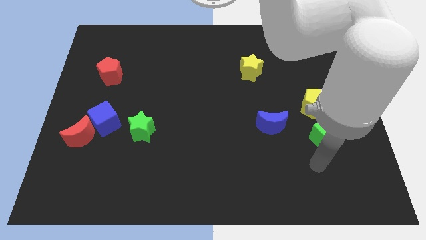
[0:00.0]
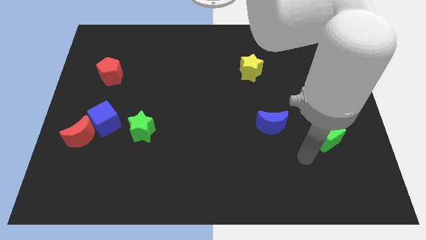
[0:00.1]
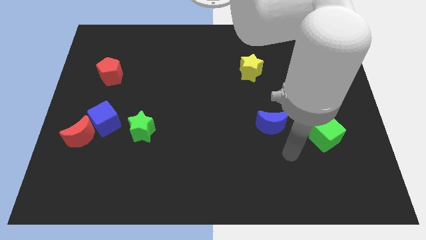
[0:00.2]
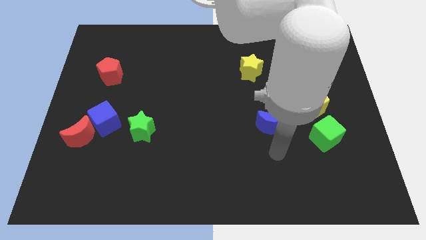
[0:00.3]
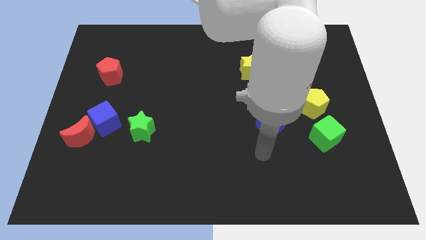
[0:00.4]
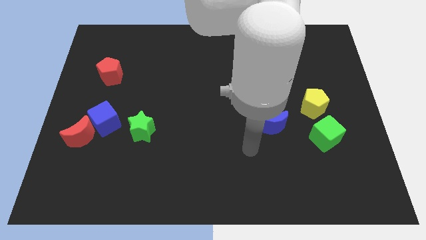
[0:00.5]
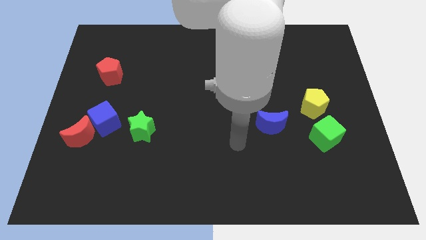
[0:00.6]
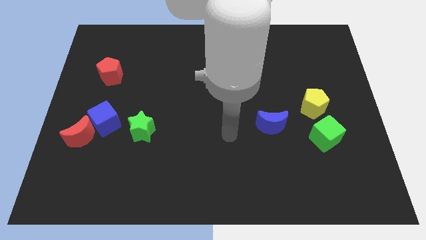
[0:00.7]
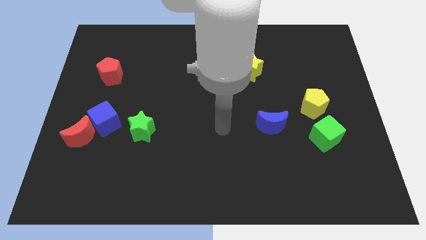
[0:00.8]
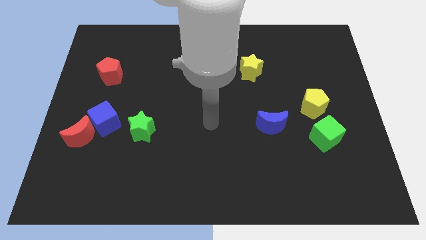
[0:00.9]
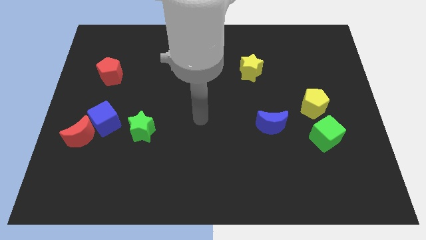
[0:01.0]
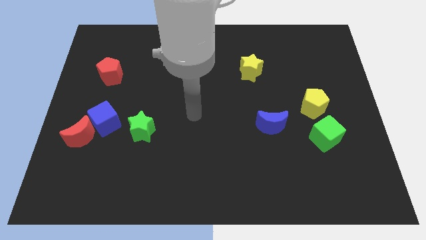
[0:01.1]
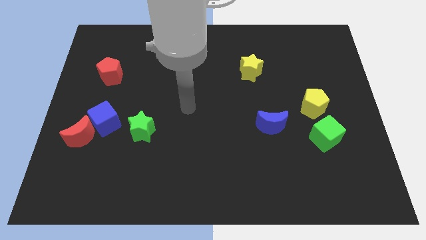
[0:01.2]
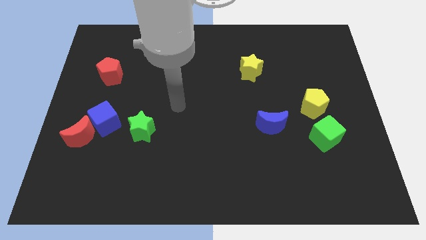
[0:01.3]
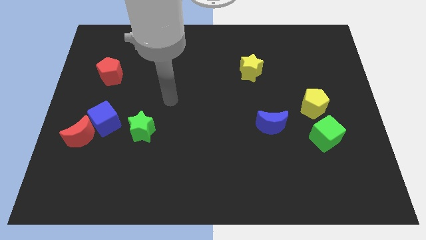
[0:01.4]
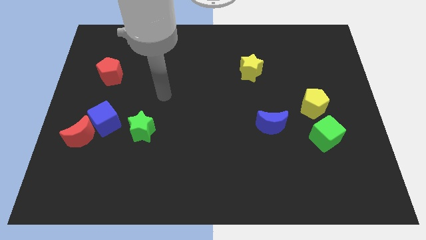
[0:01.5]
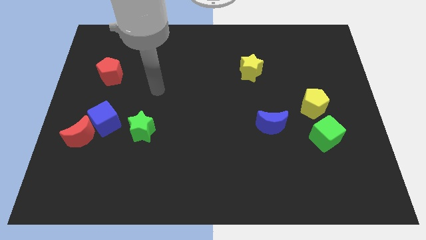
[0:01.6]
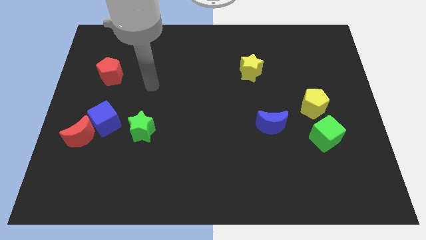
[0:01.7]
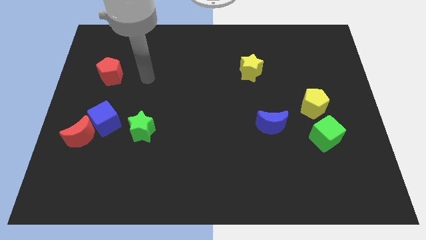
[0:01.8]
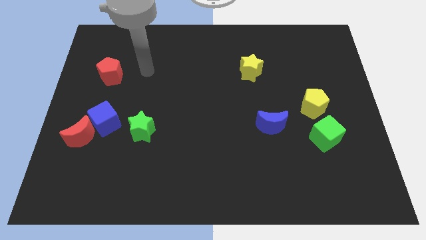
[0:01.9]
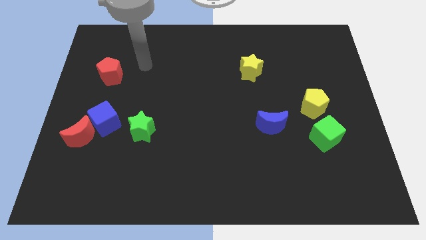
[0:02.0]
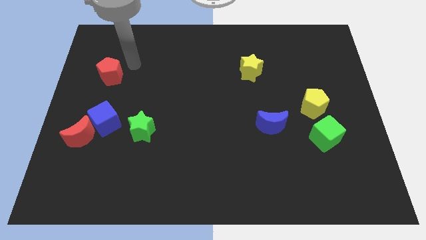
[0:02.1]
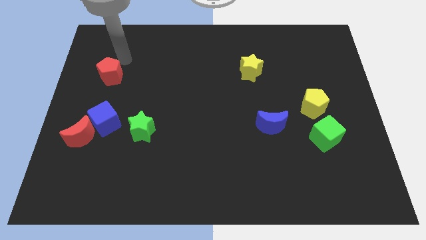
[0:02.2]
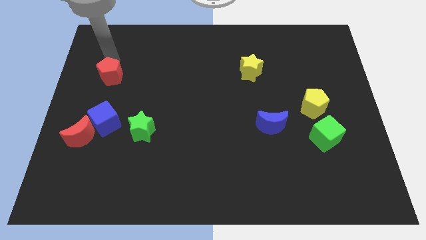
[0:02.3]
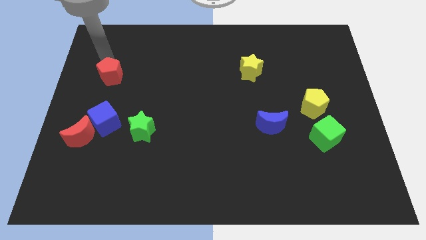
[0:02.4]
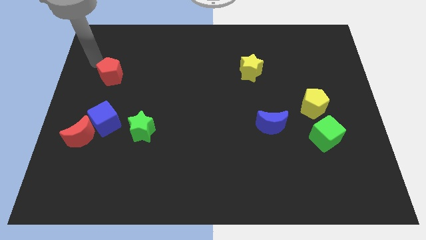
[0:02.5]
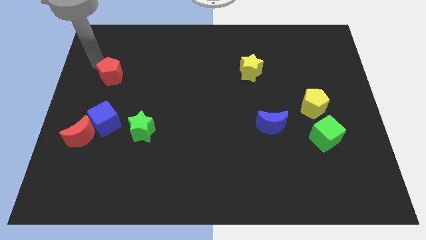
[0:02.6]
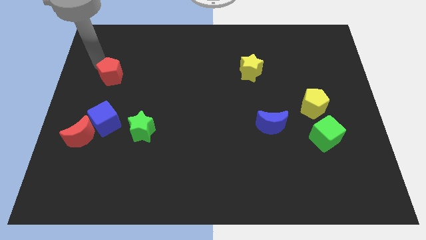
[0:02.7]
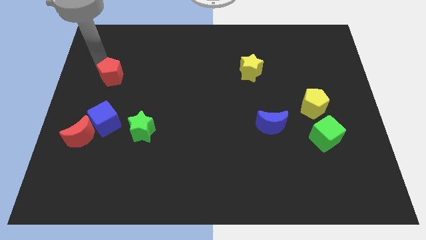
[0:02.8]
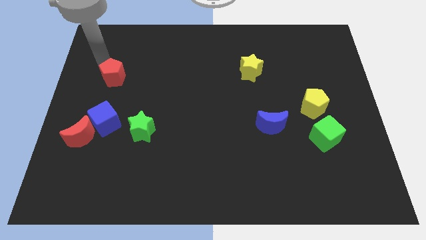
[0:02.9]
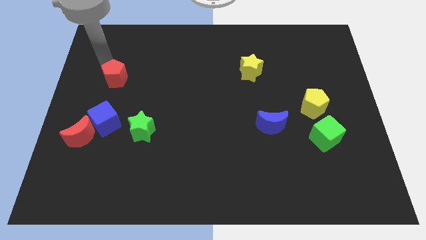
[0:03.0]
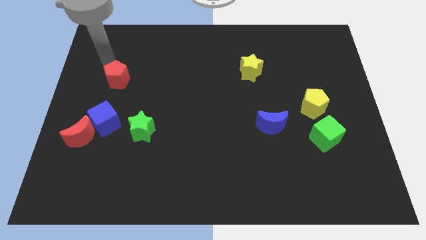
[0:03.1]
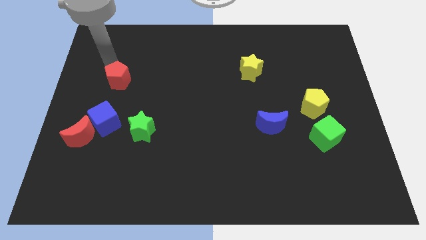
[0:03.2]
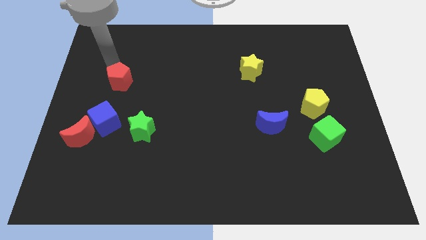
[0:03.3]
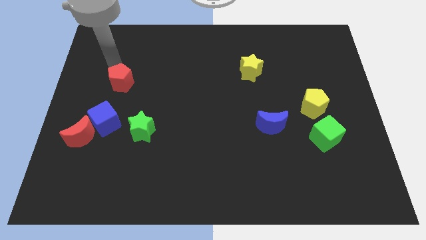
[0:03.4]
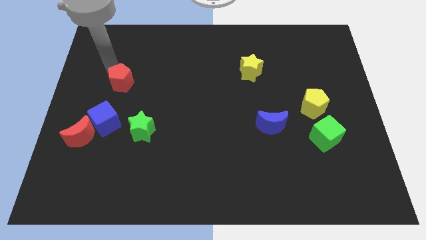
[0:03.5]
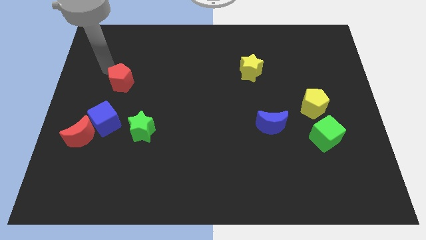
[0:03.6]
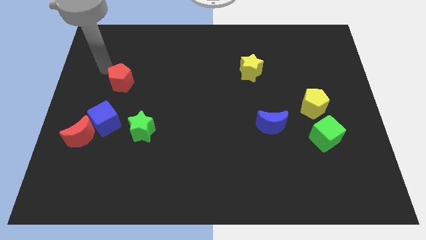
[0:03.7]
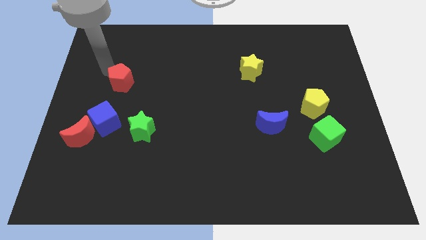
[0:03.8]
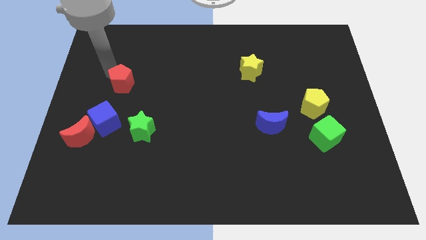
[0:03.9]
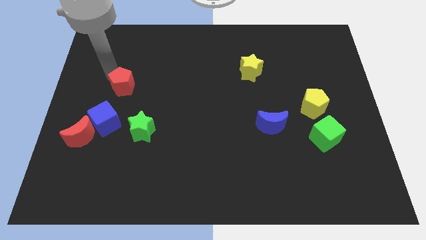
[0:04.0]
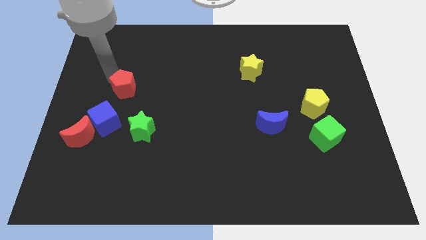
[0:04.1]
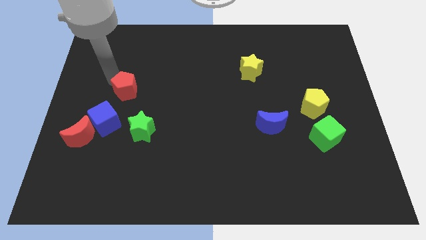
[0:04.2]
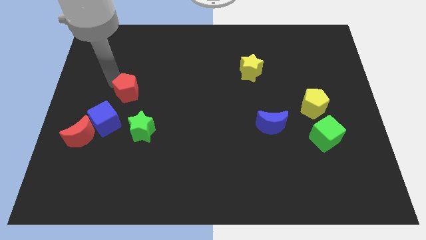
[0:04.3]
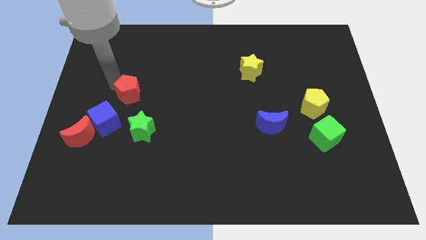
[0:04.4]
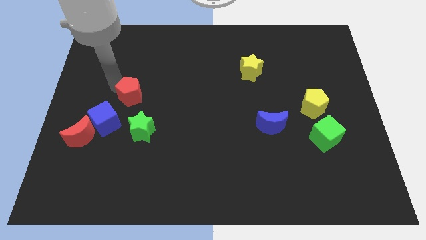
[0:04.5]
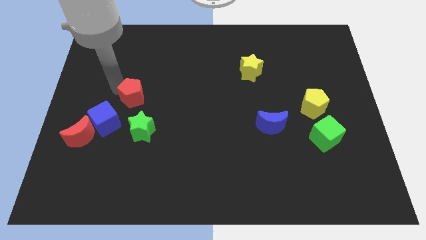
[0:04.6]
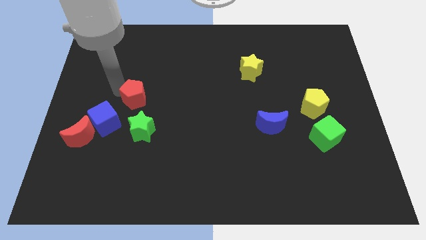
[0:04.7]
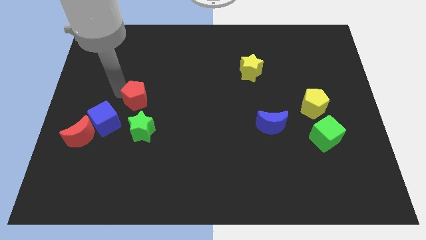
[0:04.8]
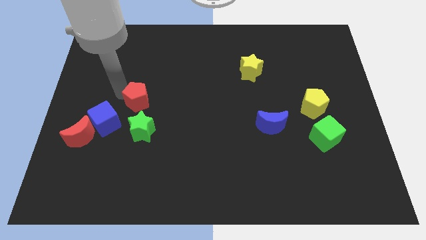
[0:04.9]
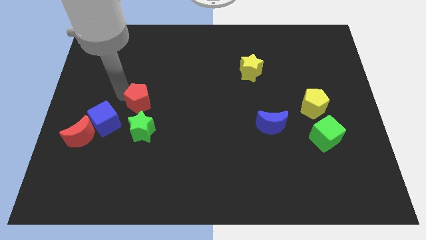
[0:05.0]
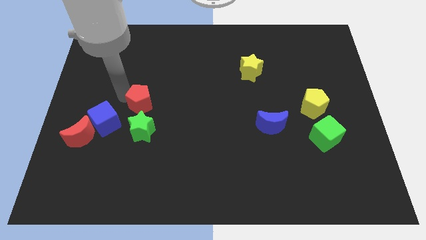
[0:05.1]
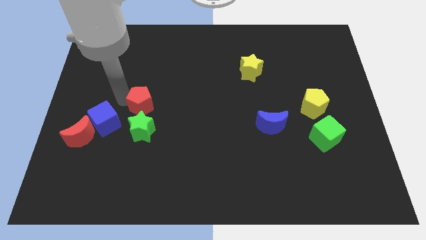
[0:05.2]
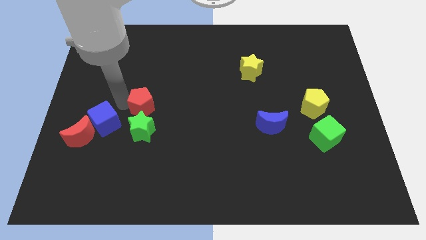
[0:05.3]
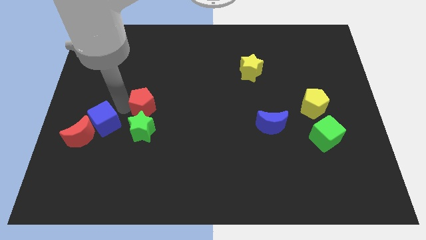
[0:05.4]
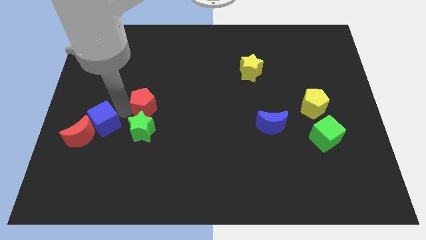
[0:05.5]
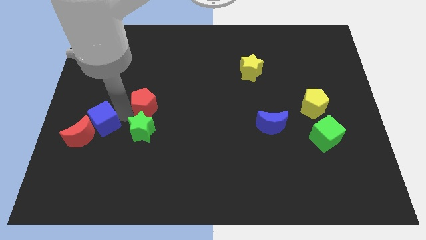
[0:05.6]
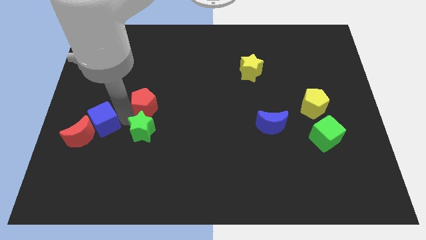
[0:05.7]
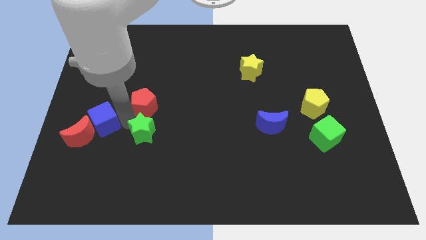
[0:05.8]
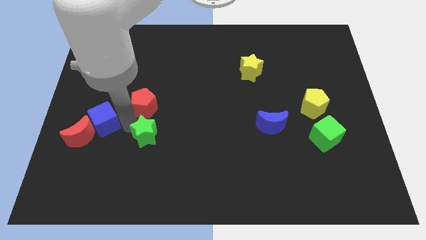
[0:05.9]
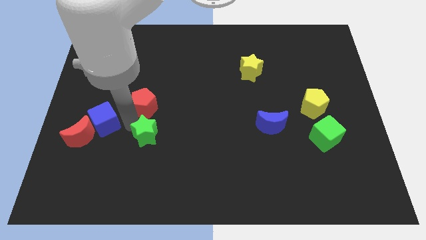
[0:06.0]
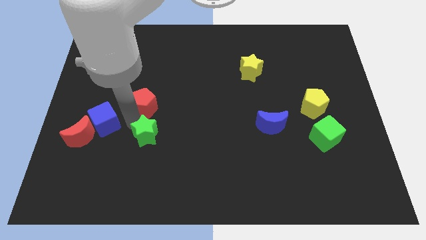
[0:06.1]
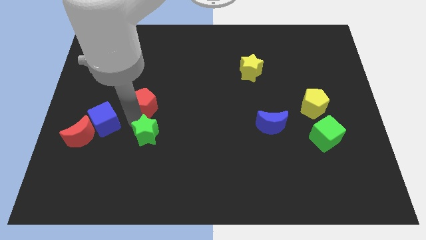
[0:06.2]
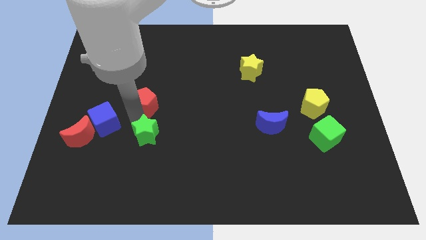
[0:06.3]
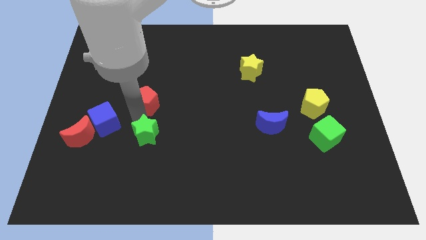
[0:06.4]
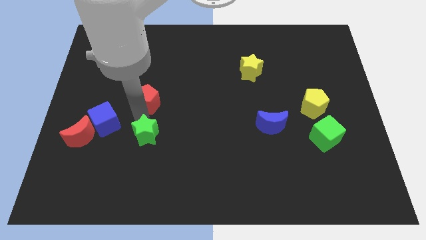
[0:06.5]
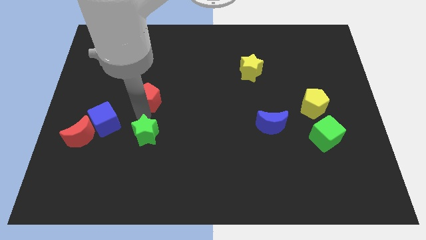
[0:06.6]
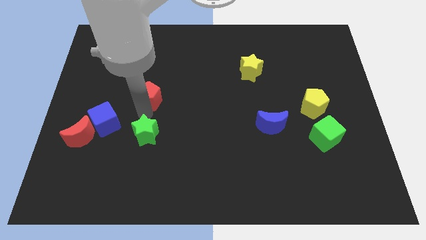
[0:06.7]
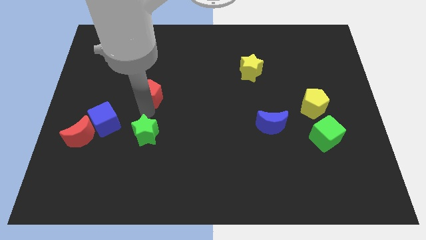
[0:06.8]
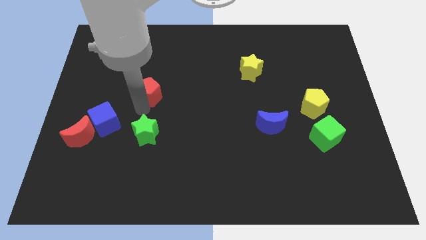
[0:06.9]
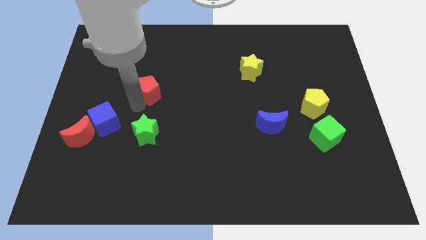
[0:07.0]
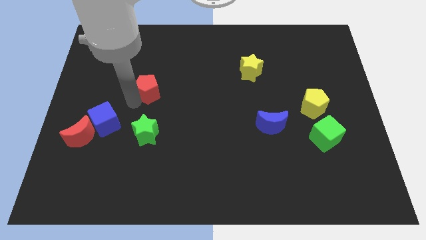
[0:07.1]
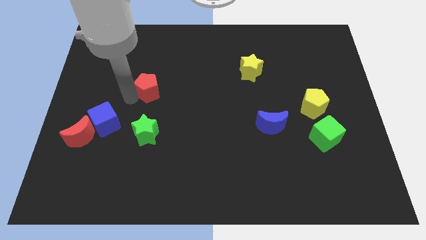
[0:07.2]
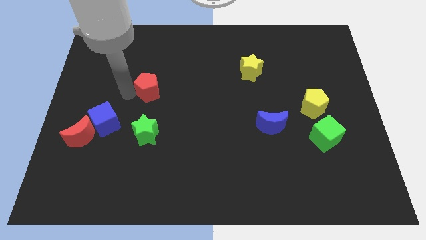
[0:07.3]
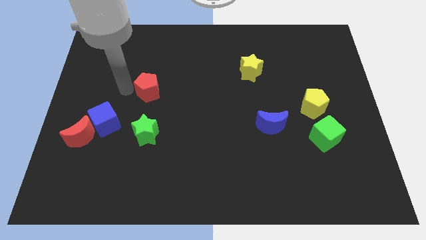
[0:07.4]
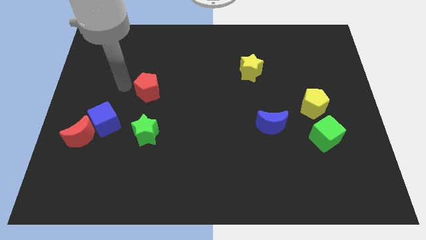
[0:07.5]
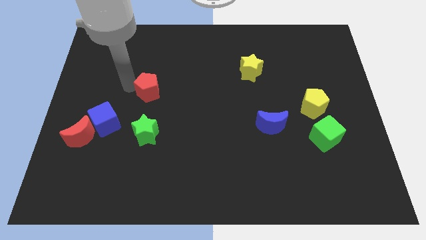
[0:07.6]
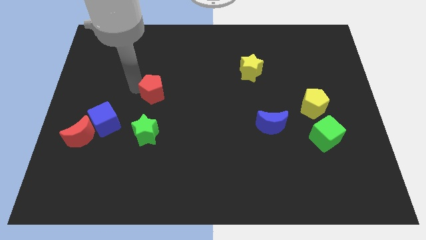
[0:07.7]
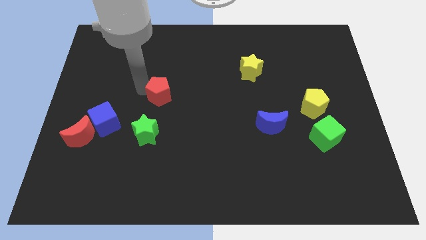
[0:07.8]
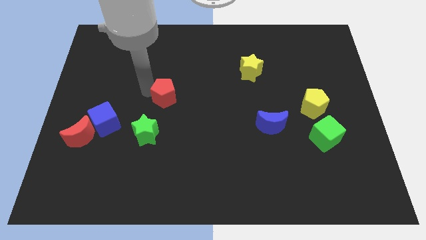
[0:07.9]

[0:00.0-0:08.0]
slide the red pentagon to the middle
